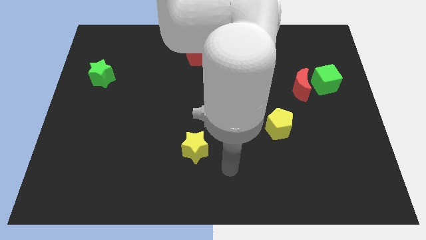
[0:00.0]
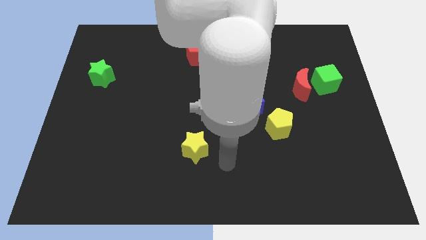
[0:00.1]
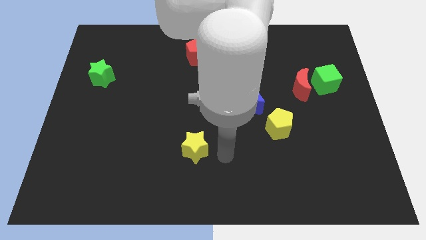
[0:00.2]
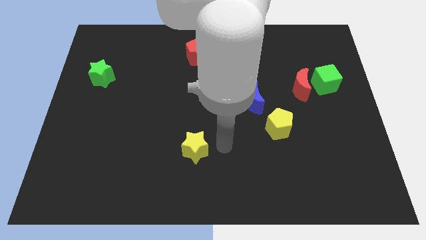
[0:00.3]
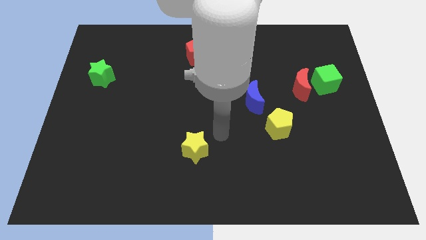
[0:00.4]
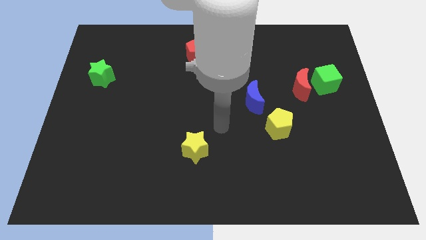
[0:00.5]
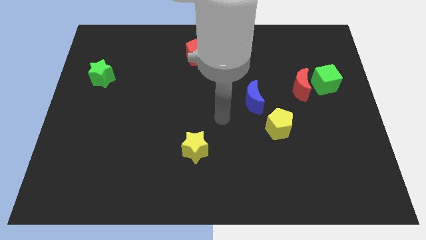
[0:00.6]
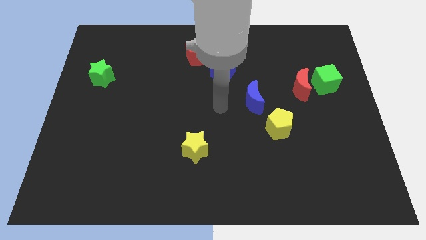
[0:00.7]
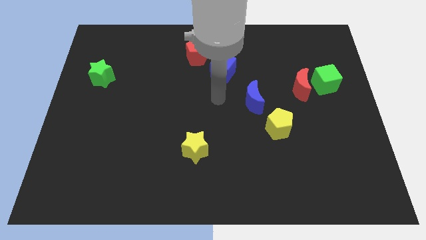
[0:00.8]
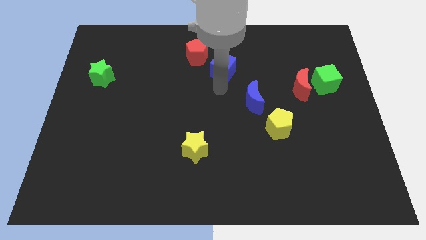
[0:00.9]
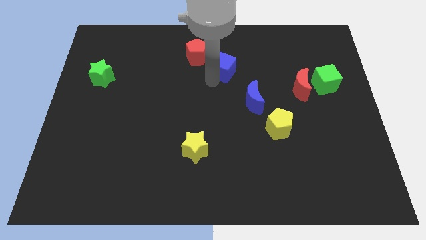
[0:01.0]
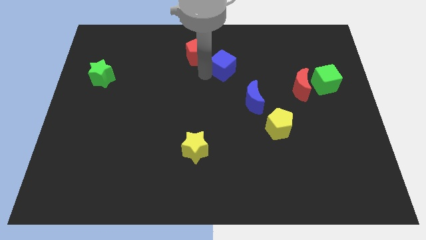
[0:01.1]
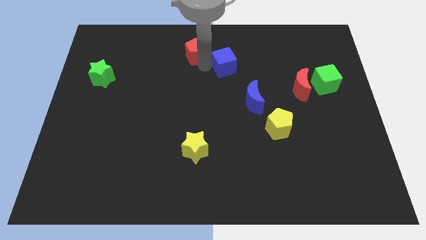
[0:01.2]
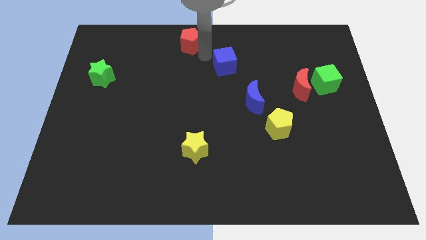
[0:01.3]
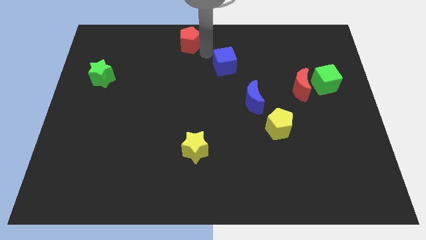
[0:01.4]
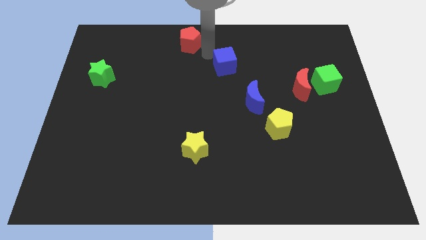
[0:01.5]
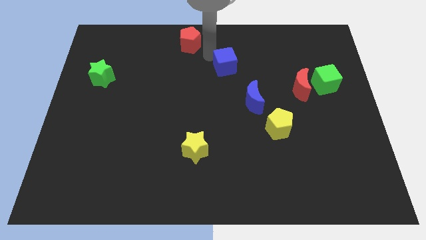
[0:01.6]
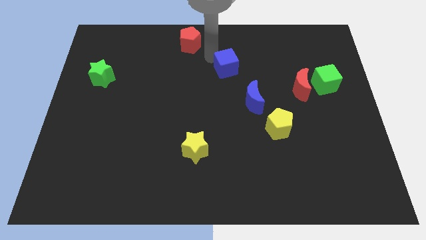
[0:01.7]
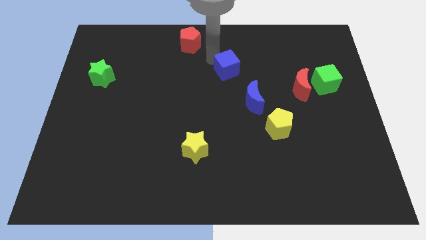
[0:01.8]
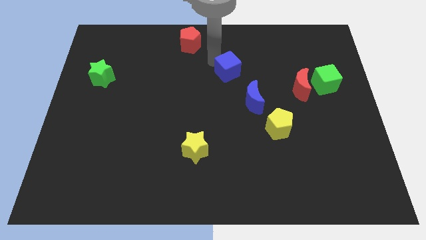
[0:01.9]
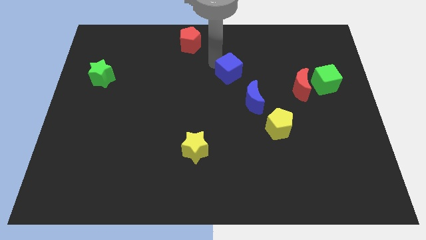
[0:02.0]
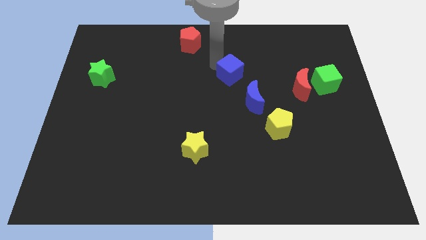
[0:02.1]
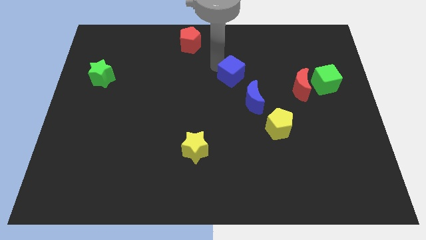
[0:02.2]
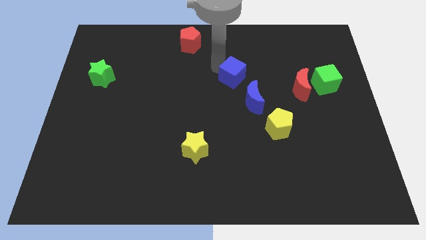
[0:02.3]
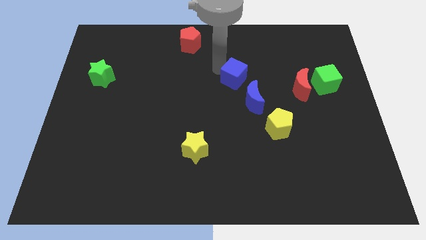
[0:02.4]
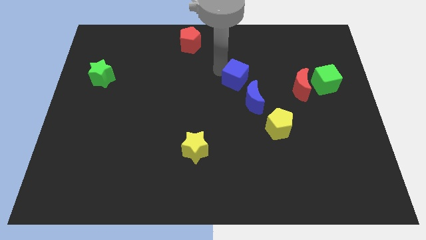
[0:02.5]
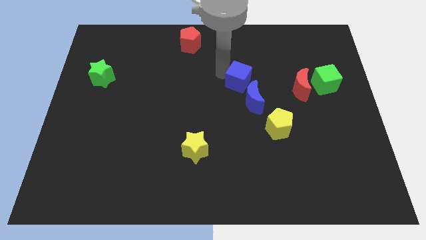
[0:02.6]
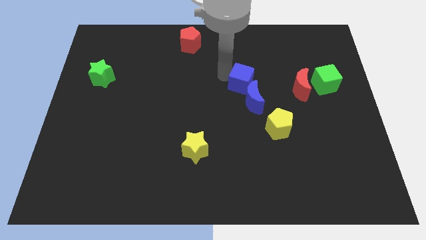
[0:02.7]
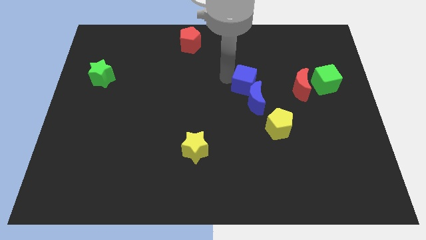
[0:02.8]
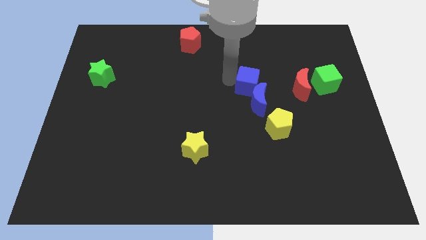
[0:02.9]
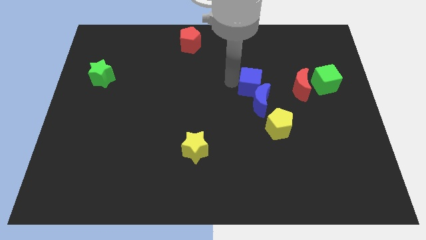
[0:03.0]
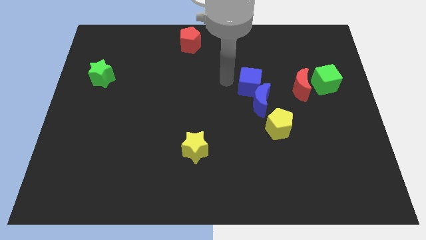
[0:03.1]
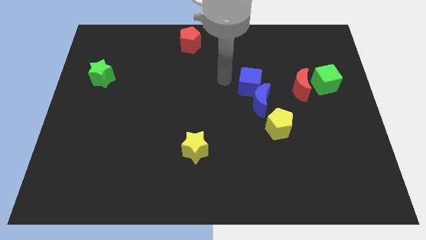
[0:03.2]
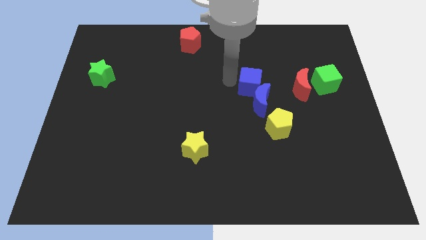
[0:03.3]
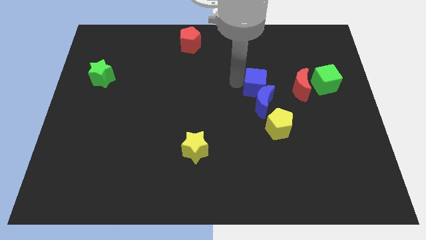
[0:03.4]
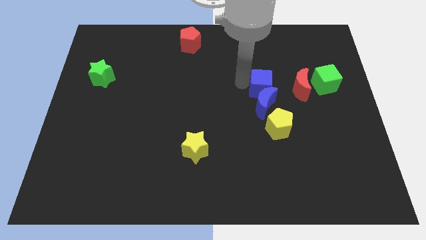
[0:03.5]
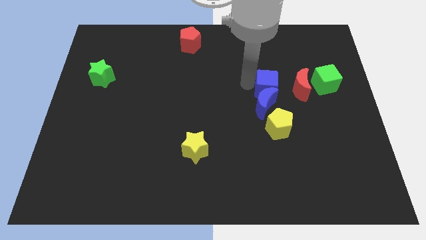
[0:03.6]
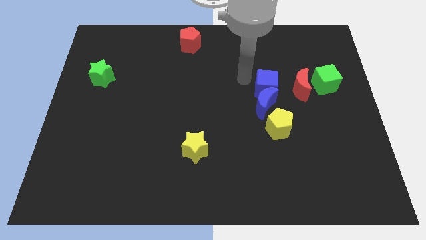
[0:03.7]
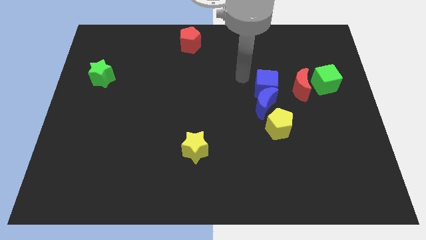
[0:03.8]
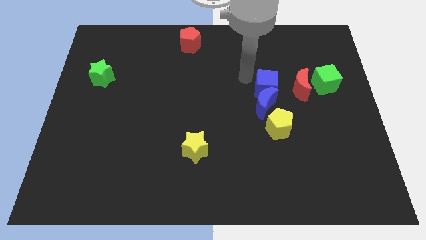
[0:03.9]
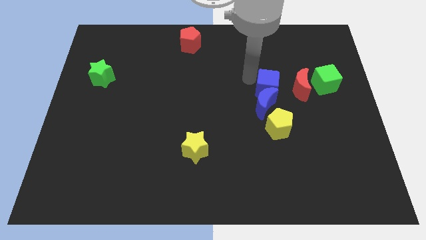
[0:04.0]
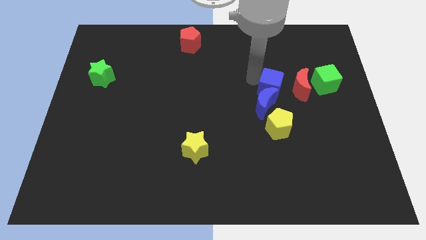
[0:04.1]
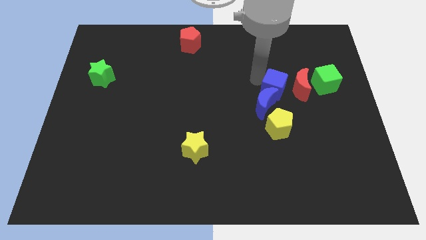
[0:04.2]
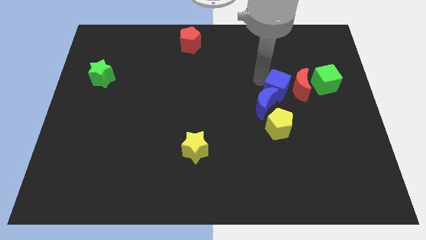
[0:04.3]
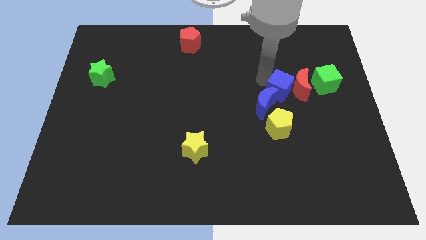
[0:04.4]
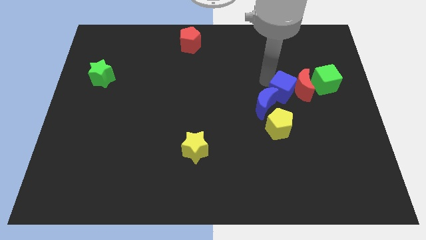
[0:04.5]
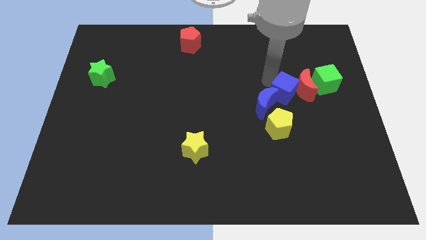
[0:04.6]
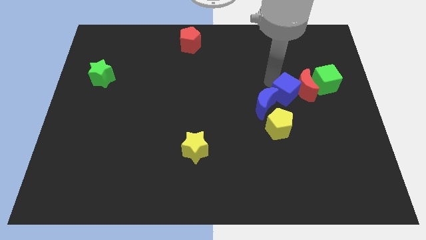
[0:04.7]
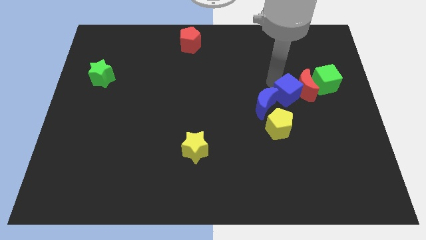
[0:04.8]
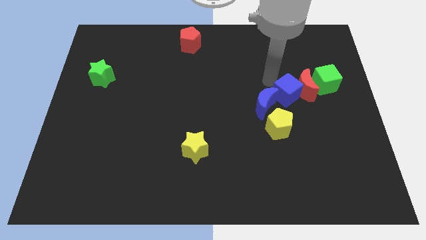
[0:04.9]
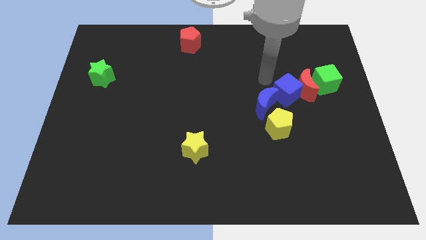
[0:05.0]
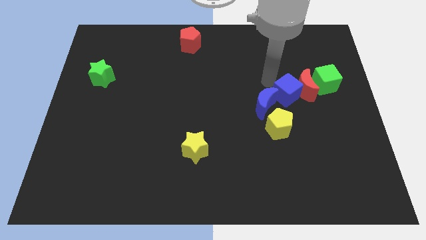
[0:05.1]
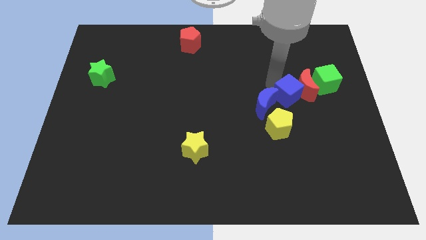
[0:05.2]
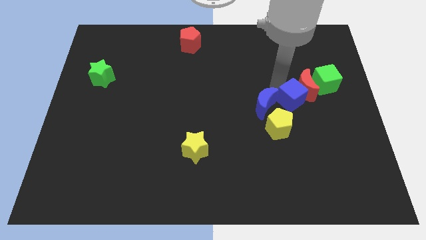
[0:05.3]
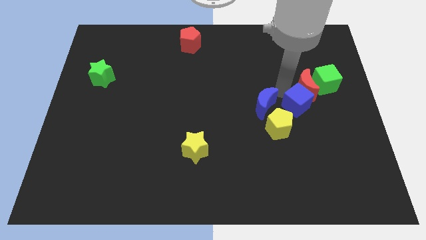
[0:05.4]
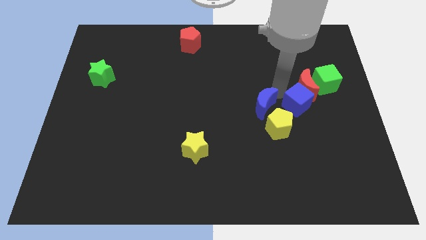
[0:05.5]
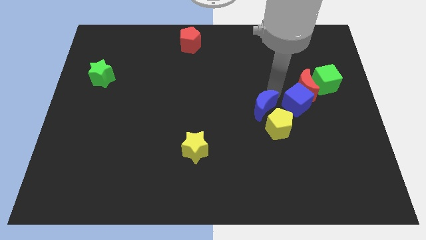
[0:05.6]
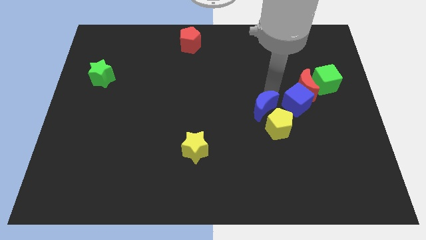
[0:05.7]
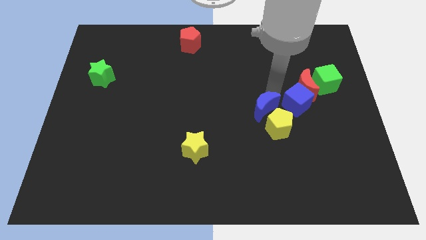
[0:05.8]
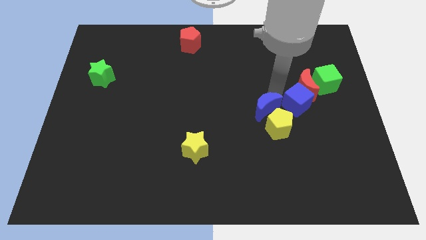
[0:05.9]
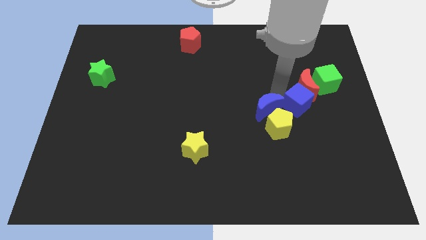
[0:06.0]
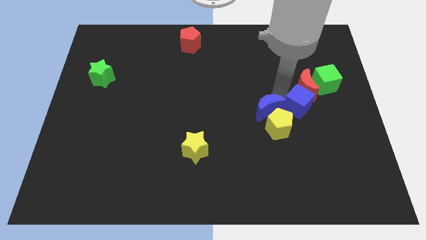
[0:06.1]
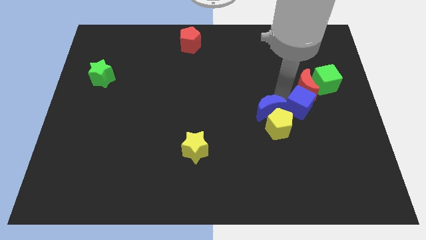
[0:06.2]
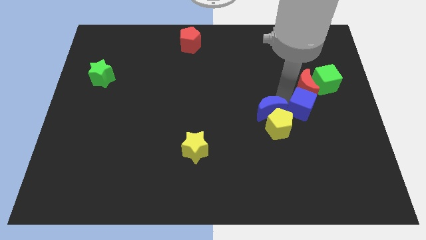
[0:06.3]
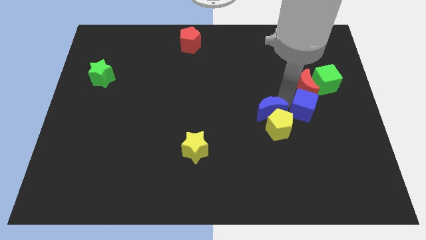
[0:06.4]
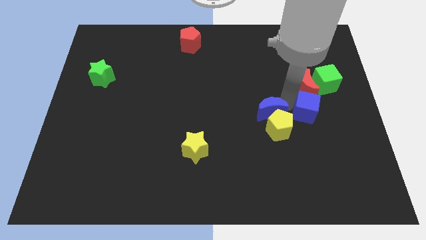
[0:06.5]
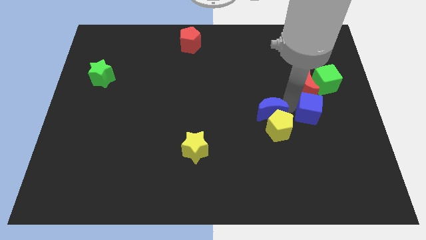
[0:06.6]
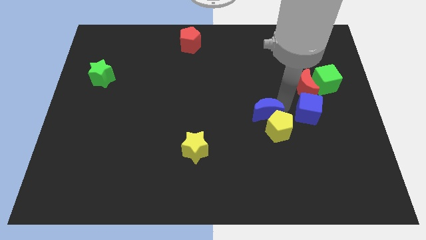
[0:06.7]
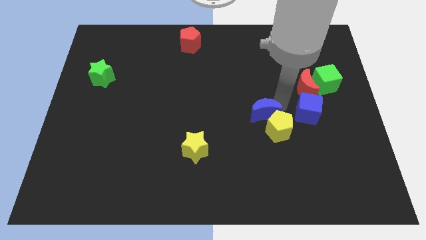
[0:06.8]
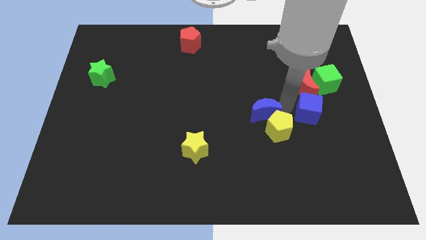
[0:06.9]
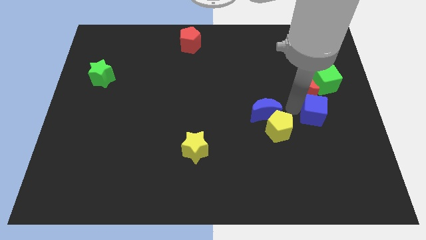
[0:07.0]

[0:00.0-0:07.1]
slide the blue cube below the green cube

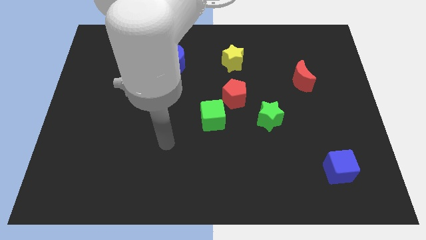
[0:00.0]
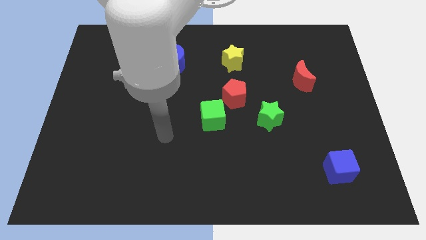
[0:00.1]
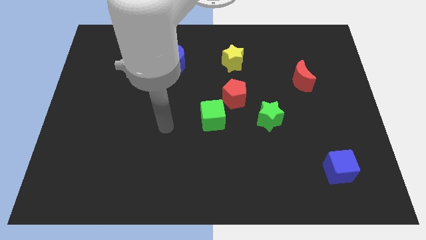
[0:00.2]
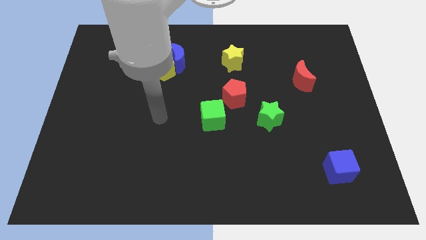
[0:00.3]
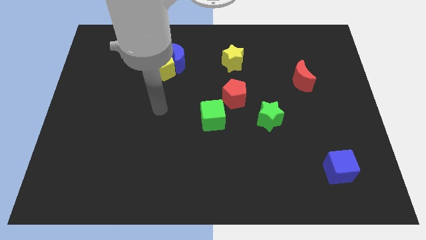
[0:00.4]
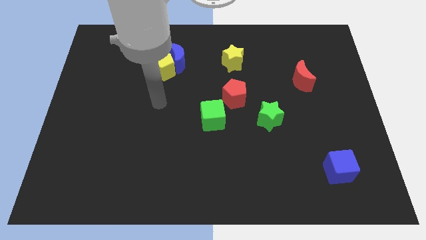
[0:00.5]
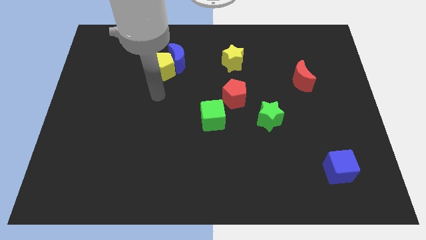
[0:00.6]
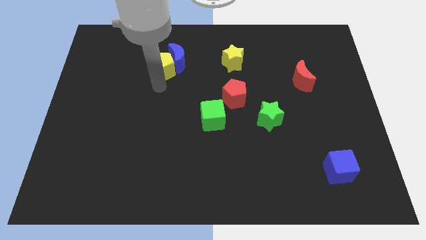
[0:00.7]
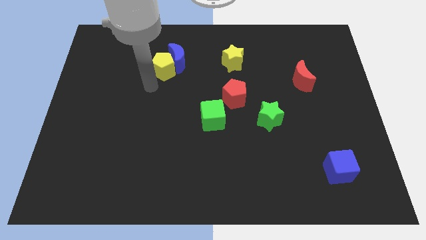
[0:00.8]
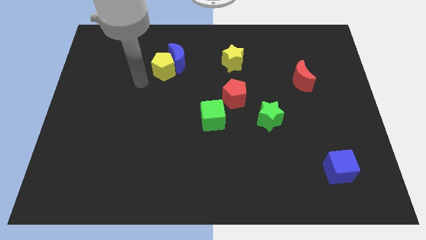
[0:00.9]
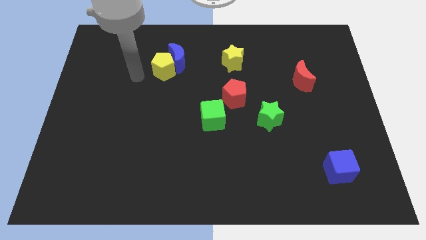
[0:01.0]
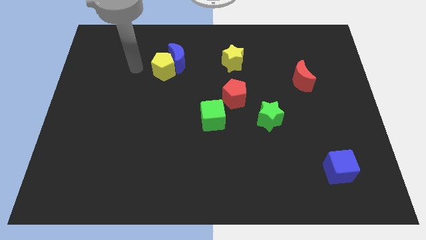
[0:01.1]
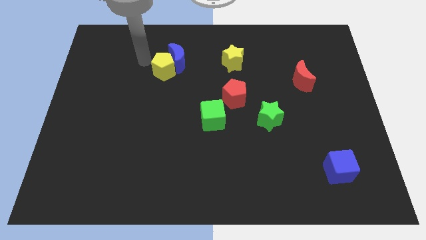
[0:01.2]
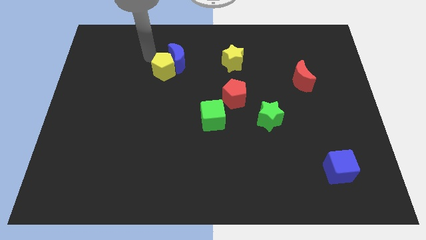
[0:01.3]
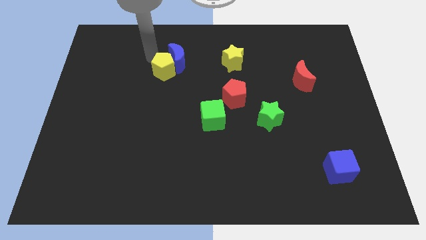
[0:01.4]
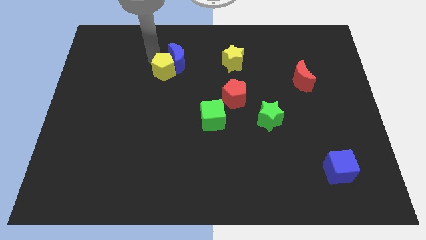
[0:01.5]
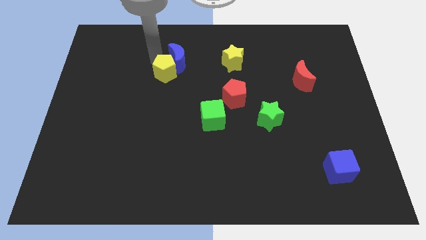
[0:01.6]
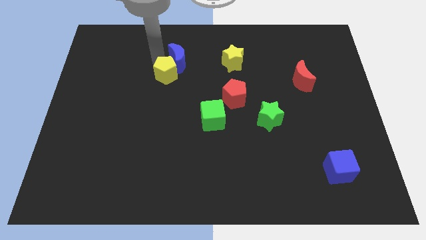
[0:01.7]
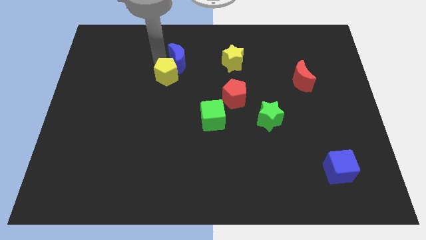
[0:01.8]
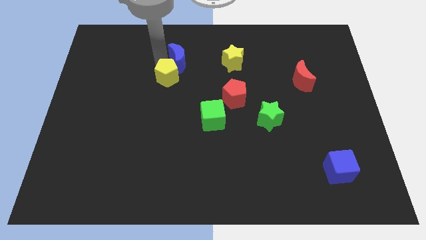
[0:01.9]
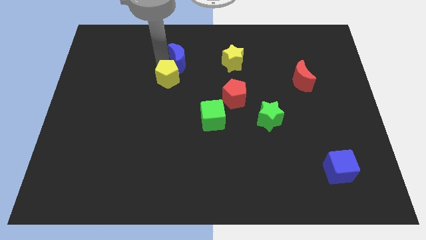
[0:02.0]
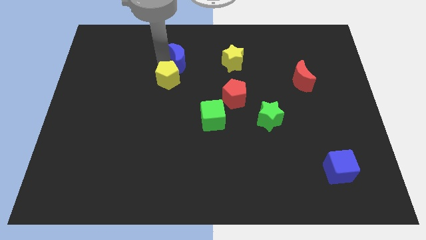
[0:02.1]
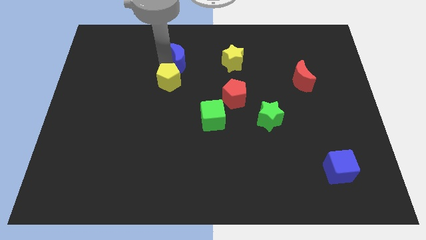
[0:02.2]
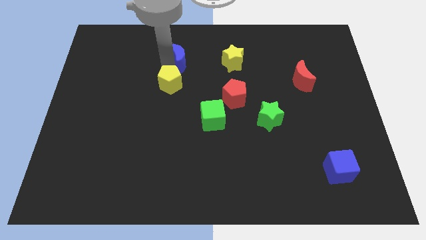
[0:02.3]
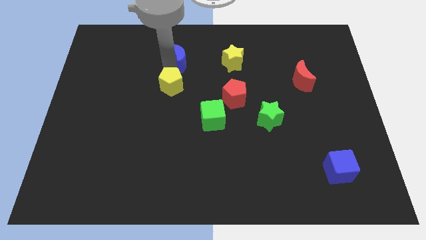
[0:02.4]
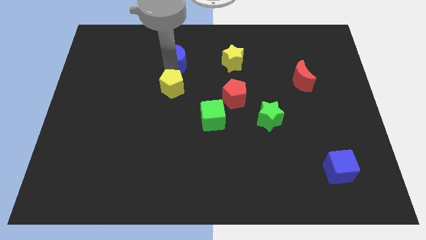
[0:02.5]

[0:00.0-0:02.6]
push the yellow pentagon left of the red pentagon
